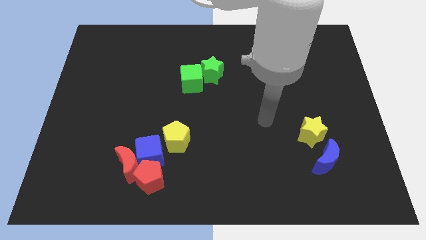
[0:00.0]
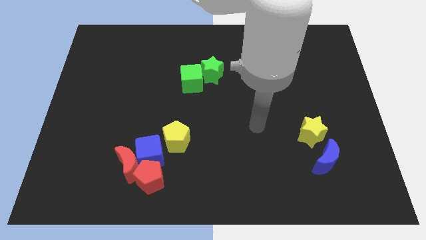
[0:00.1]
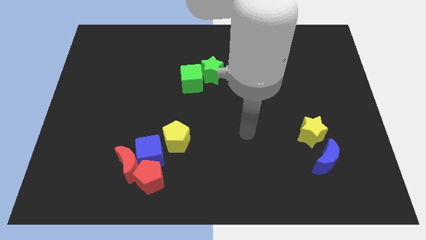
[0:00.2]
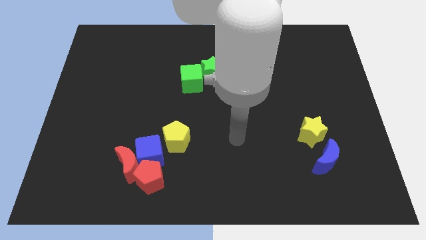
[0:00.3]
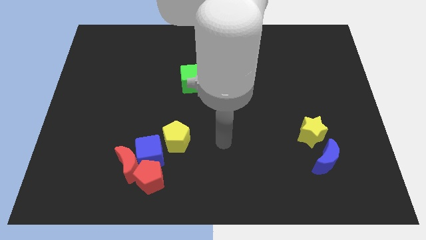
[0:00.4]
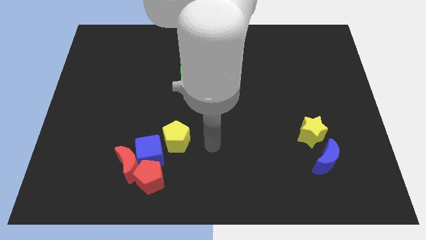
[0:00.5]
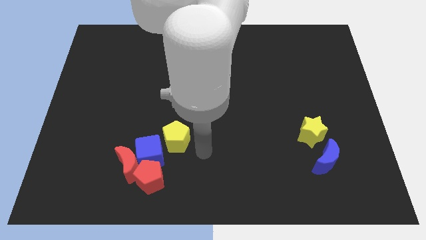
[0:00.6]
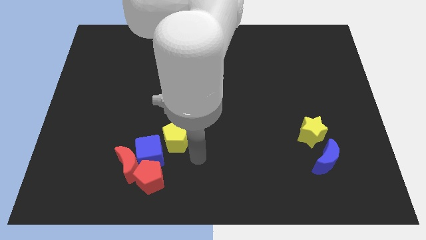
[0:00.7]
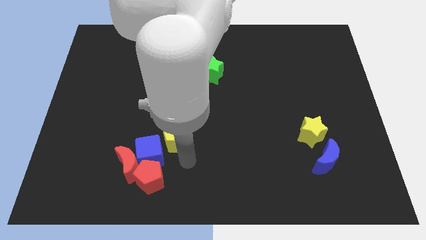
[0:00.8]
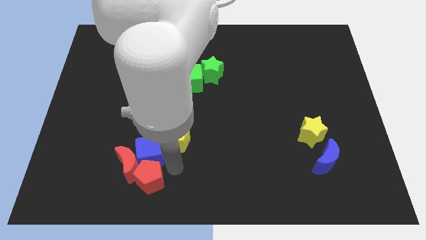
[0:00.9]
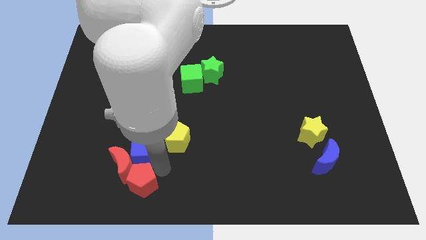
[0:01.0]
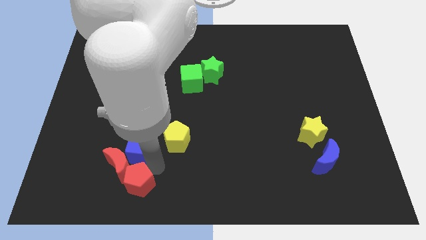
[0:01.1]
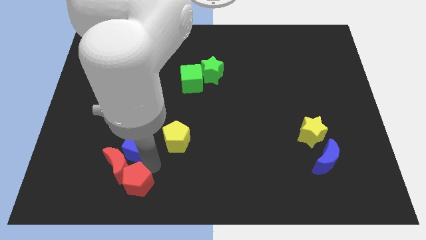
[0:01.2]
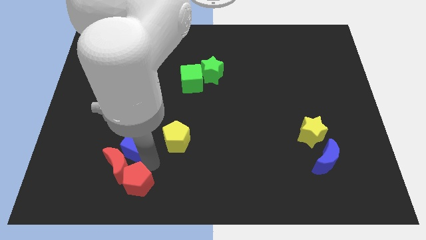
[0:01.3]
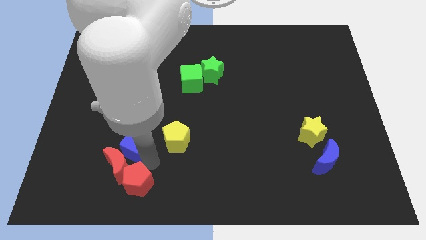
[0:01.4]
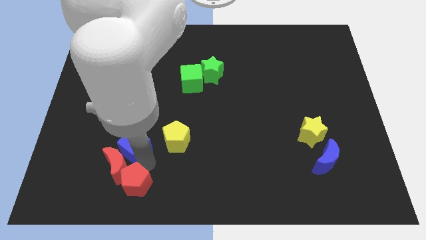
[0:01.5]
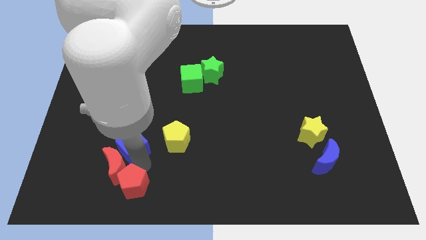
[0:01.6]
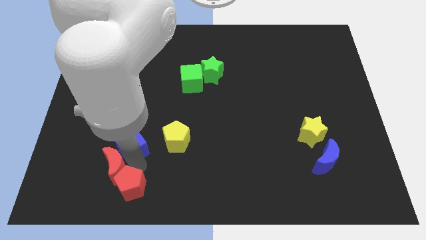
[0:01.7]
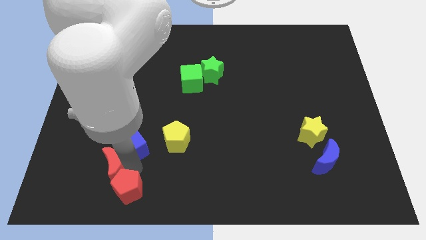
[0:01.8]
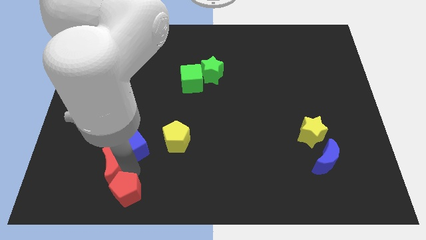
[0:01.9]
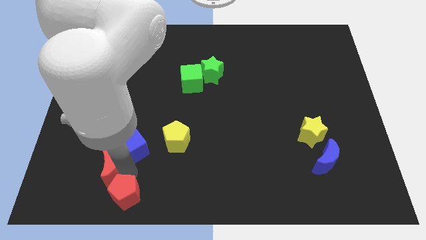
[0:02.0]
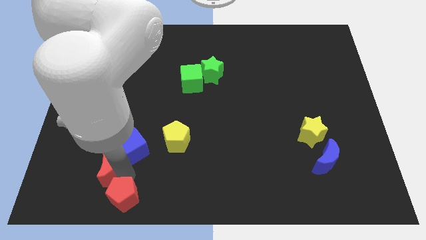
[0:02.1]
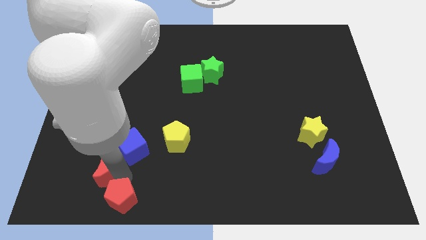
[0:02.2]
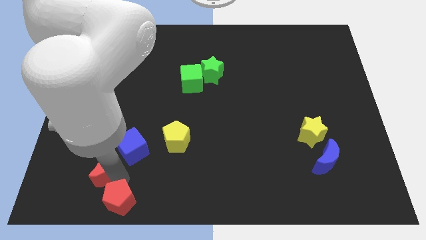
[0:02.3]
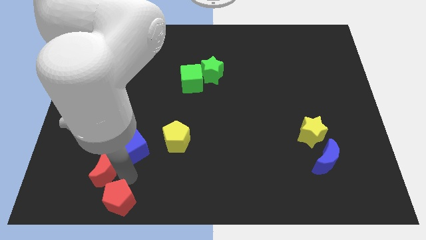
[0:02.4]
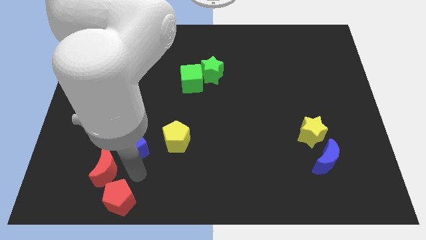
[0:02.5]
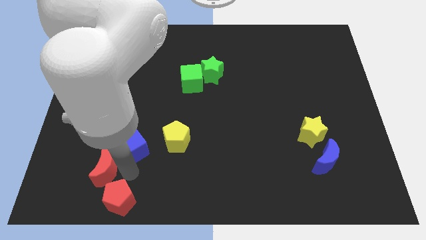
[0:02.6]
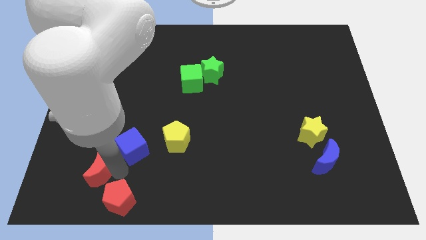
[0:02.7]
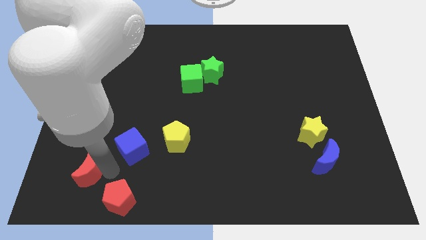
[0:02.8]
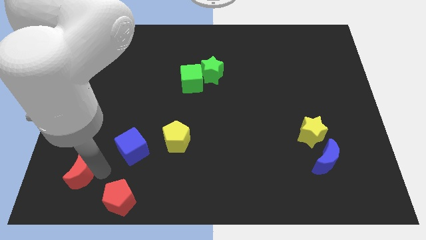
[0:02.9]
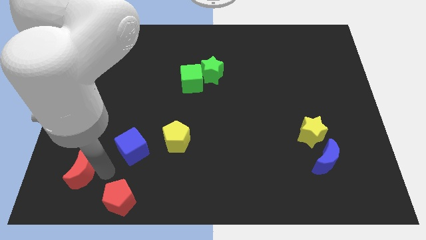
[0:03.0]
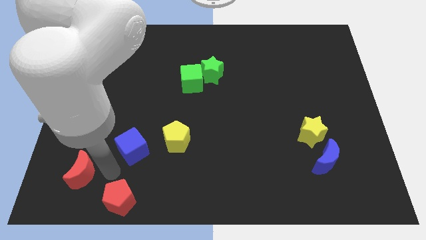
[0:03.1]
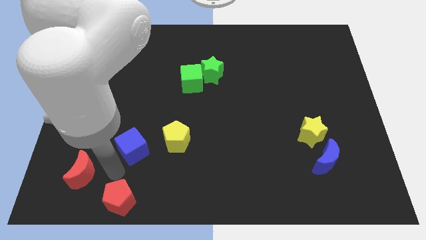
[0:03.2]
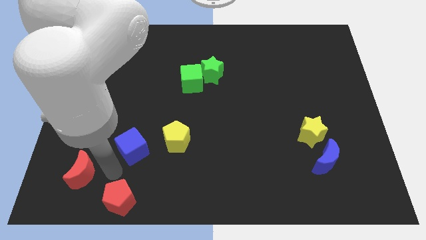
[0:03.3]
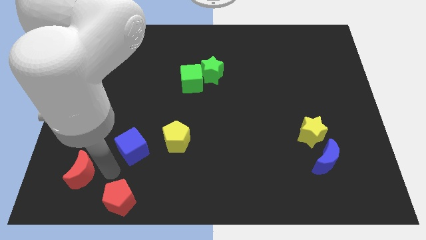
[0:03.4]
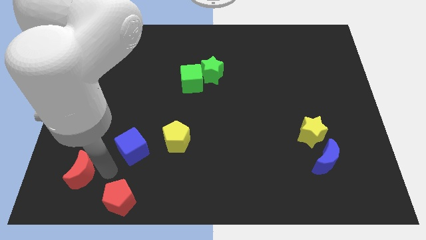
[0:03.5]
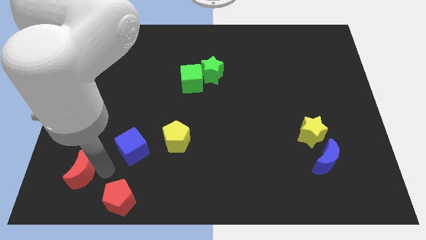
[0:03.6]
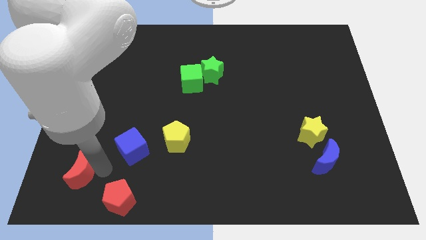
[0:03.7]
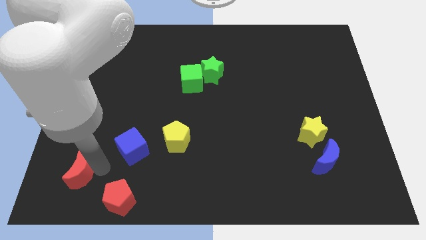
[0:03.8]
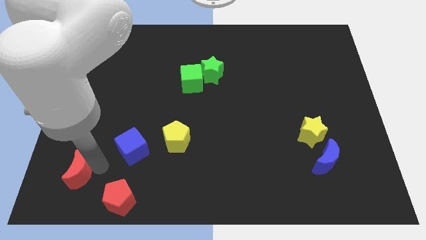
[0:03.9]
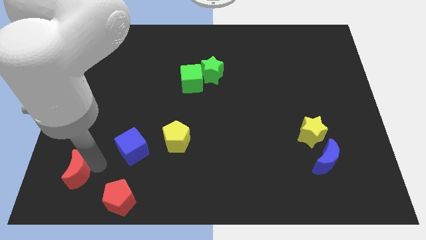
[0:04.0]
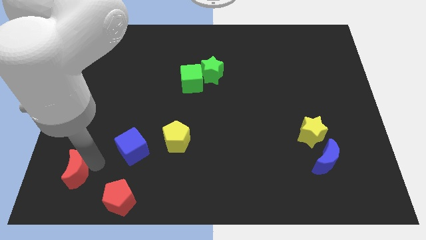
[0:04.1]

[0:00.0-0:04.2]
move the red moon away from the blue cube and red pentagon

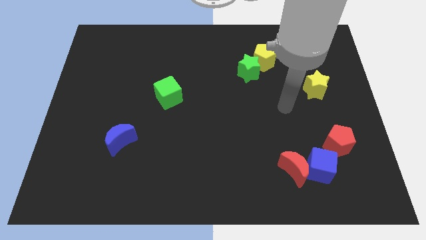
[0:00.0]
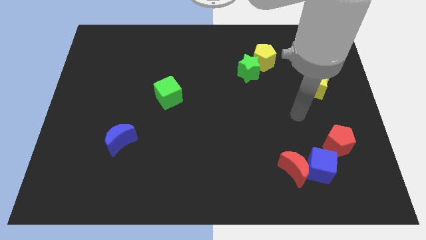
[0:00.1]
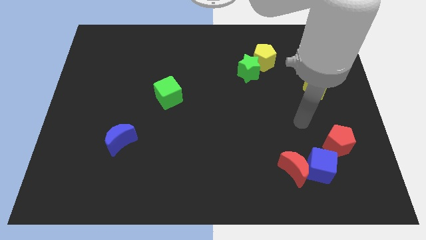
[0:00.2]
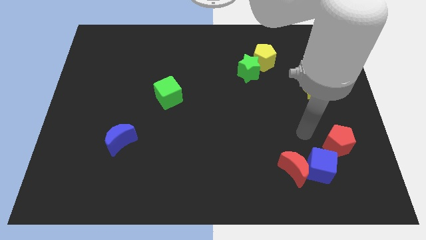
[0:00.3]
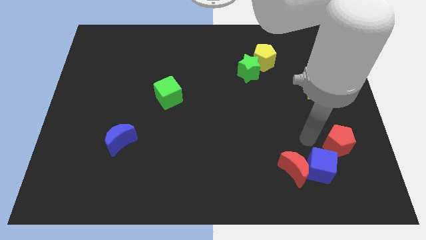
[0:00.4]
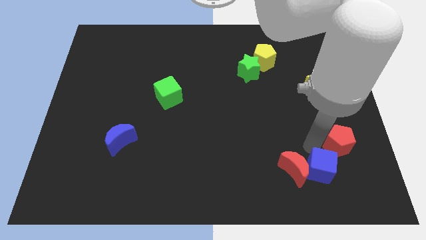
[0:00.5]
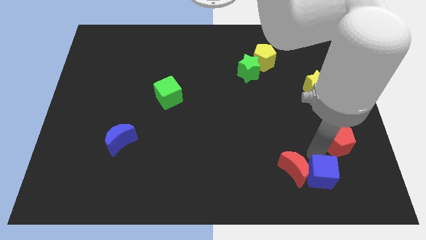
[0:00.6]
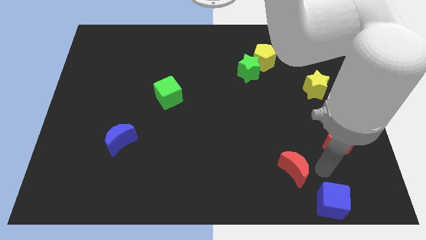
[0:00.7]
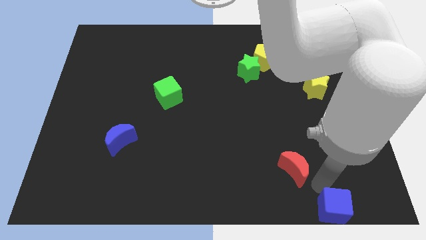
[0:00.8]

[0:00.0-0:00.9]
separate the red moon from the blue cube

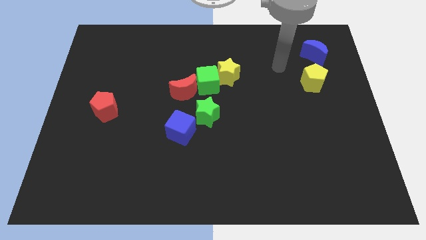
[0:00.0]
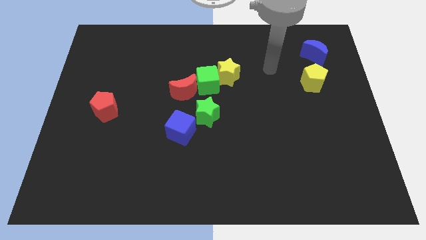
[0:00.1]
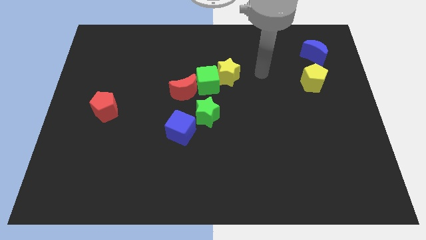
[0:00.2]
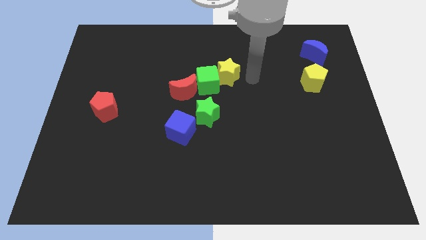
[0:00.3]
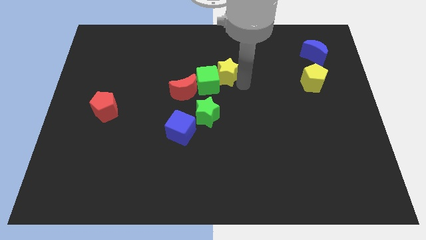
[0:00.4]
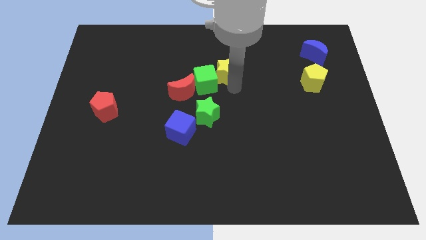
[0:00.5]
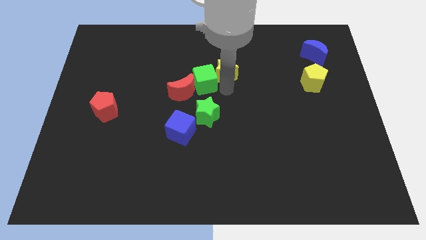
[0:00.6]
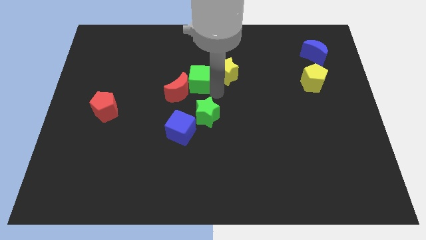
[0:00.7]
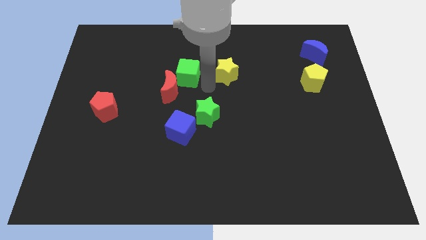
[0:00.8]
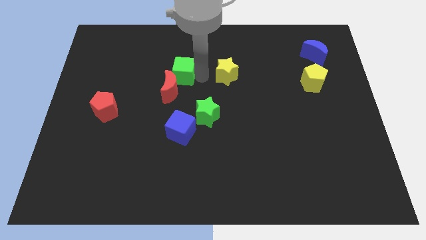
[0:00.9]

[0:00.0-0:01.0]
move the yellow star away from the green cube

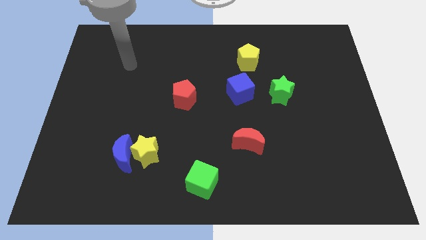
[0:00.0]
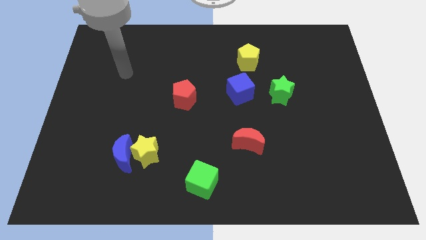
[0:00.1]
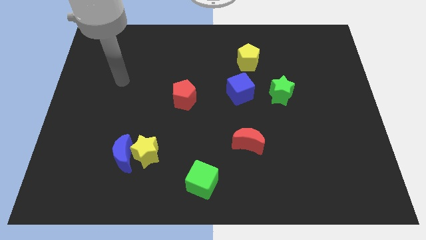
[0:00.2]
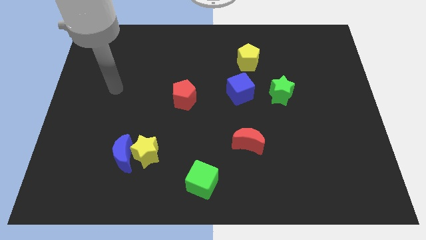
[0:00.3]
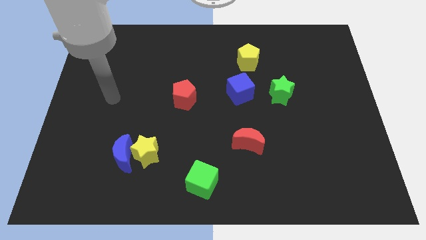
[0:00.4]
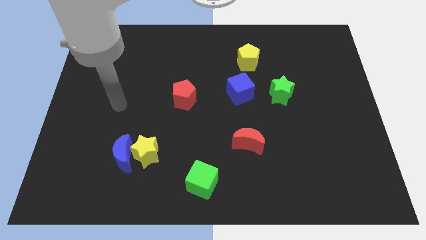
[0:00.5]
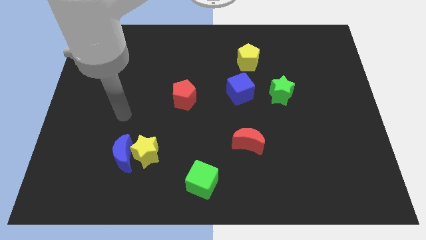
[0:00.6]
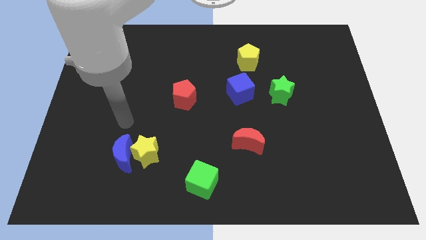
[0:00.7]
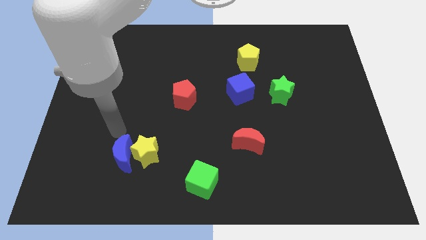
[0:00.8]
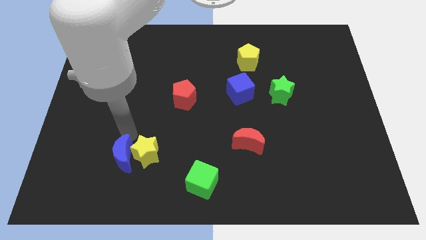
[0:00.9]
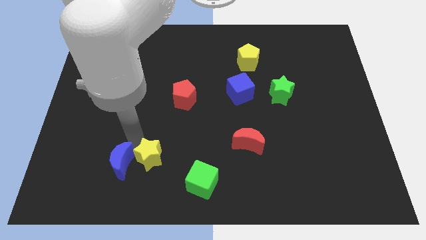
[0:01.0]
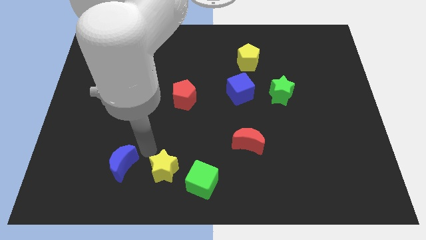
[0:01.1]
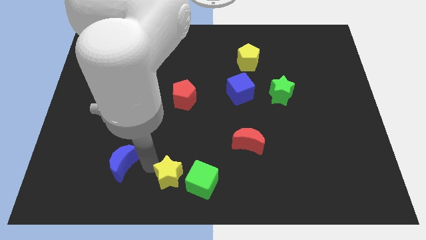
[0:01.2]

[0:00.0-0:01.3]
pull the blue moon apart from the yellow star

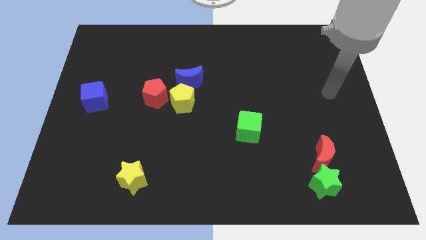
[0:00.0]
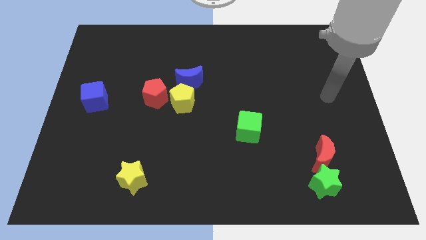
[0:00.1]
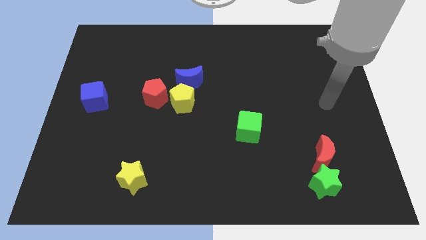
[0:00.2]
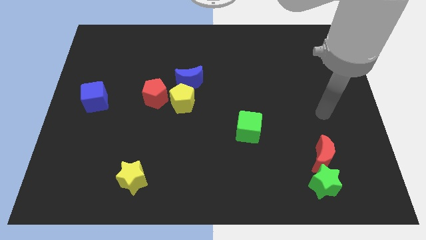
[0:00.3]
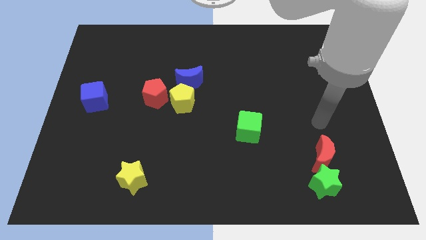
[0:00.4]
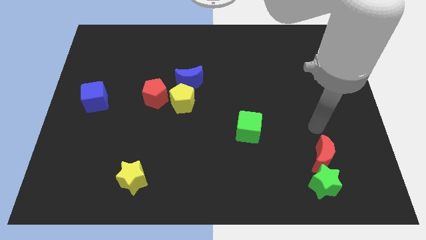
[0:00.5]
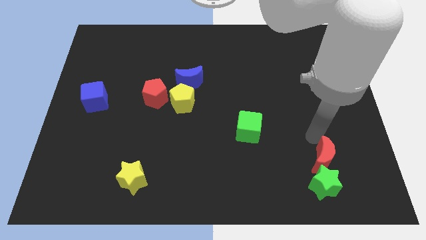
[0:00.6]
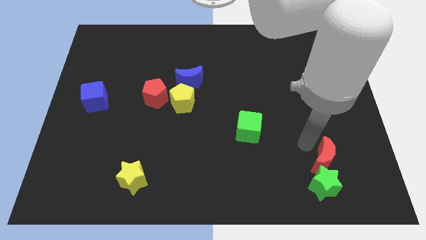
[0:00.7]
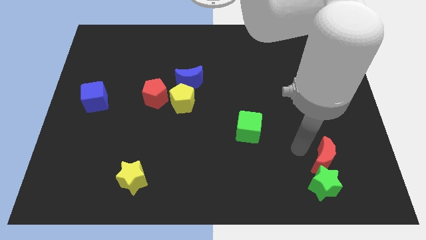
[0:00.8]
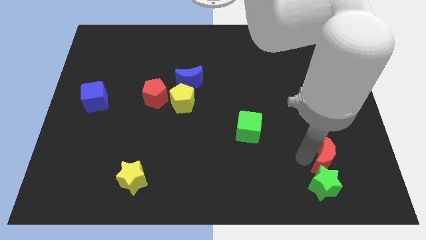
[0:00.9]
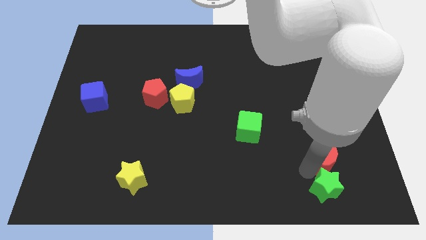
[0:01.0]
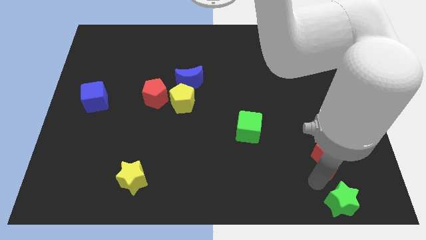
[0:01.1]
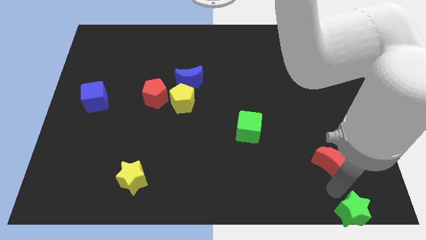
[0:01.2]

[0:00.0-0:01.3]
move the red moon away from the green star

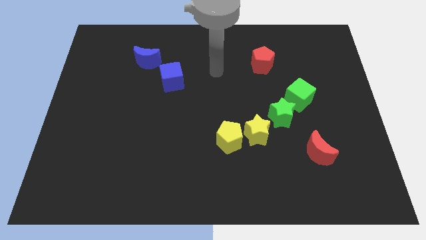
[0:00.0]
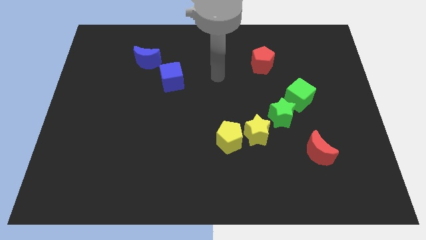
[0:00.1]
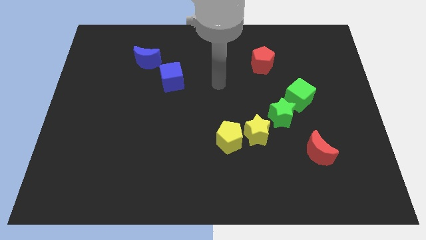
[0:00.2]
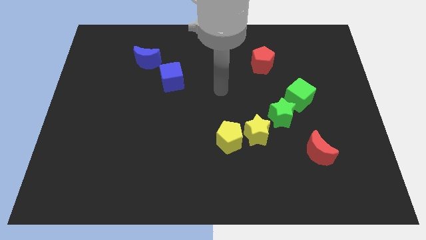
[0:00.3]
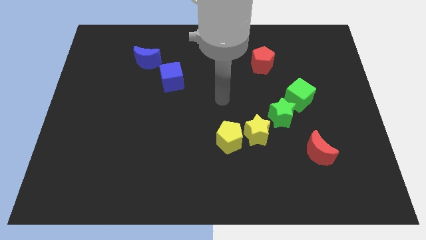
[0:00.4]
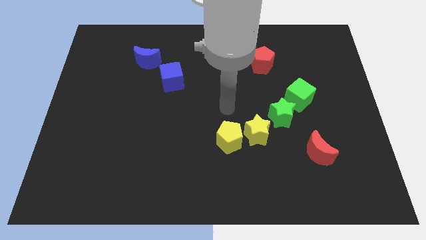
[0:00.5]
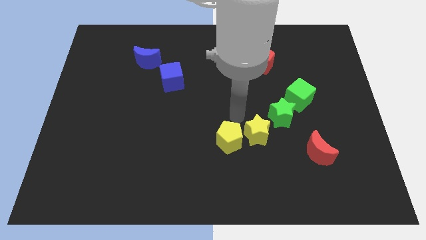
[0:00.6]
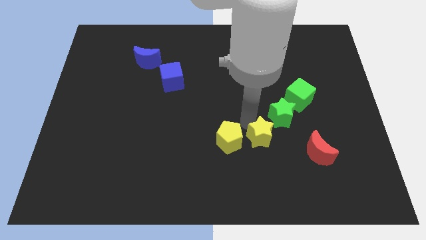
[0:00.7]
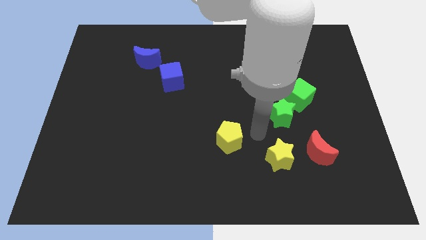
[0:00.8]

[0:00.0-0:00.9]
move the yellow pentagon away from the yellow star
